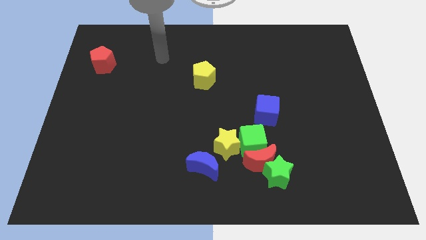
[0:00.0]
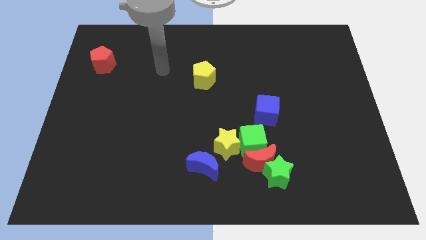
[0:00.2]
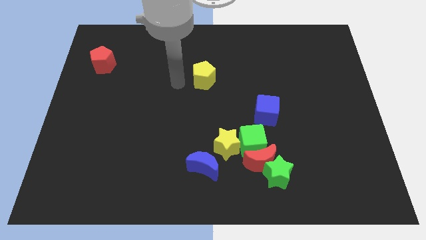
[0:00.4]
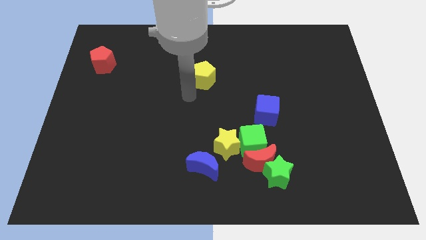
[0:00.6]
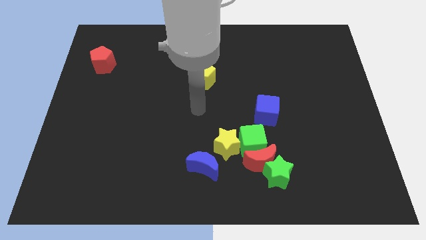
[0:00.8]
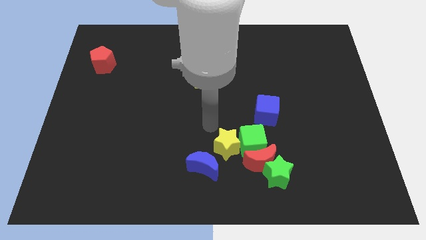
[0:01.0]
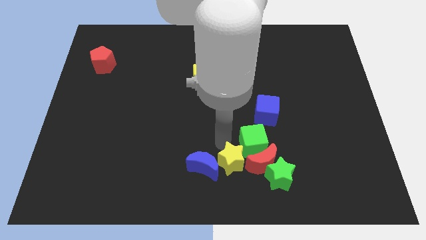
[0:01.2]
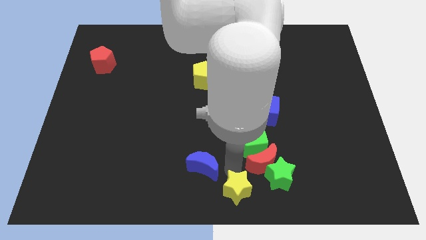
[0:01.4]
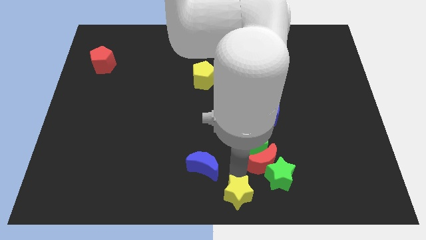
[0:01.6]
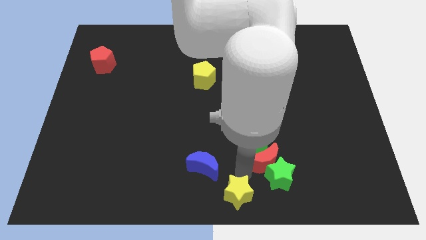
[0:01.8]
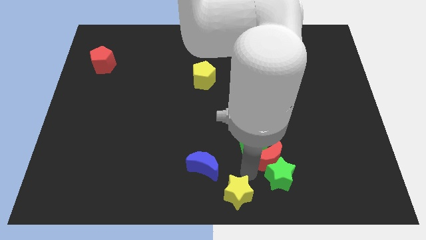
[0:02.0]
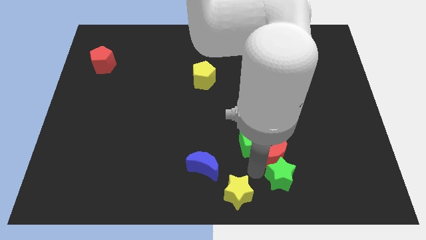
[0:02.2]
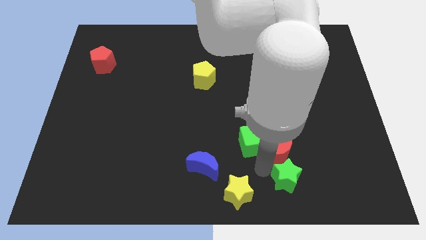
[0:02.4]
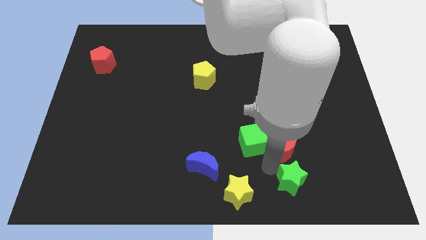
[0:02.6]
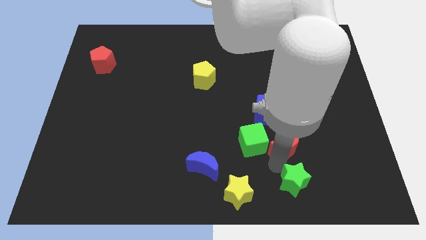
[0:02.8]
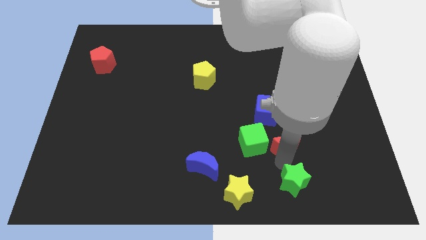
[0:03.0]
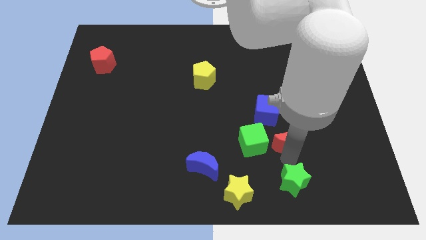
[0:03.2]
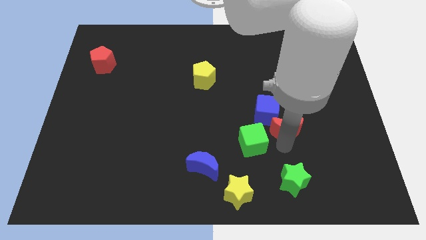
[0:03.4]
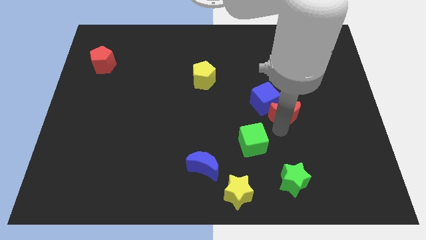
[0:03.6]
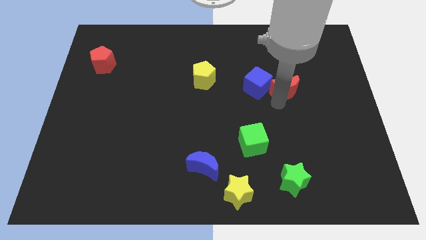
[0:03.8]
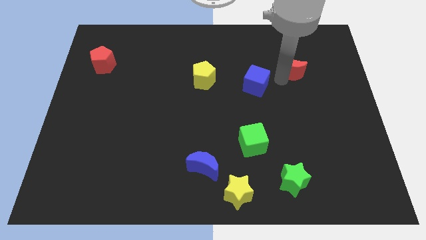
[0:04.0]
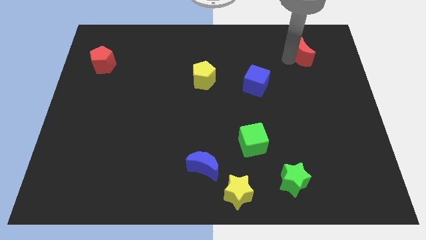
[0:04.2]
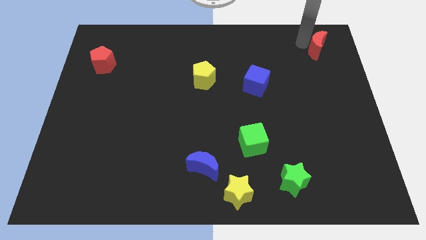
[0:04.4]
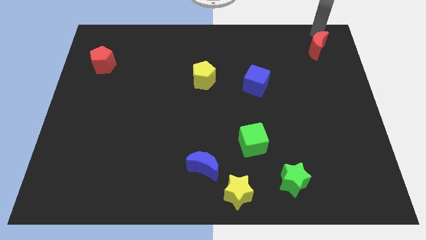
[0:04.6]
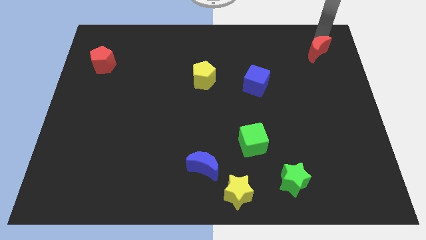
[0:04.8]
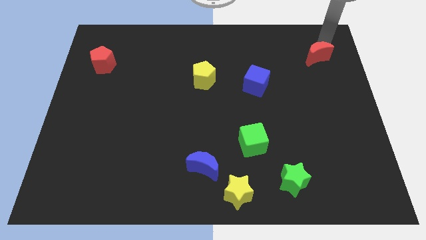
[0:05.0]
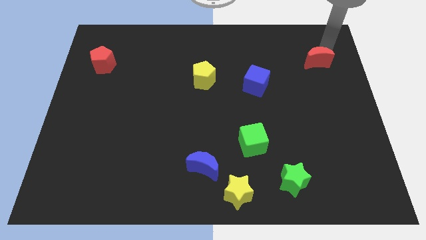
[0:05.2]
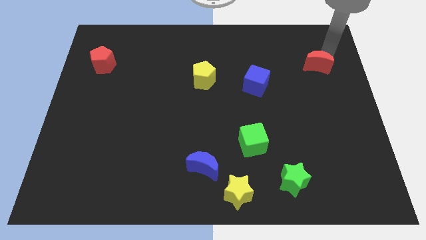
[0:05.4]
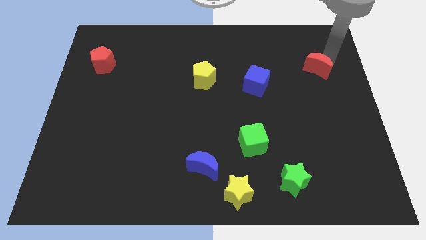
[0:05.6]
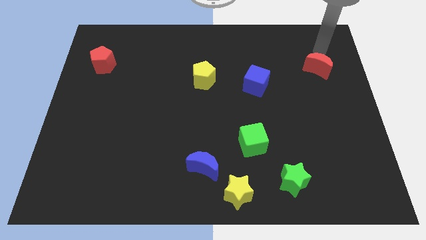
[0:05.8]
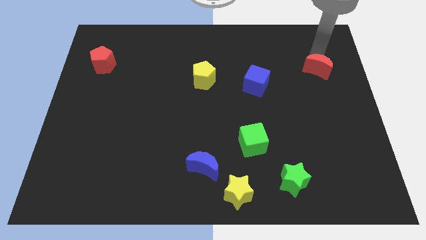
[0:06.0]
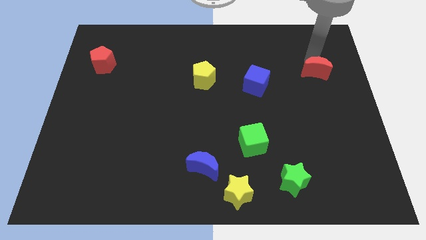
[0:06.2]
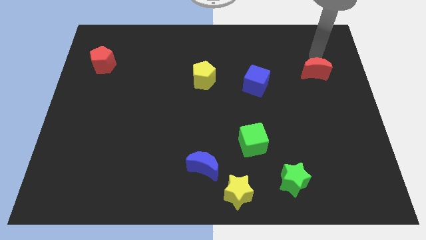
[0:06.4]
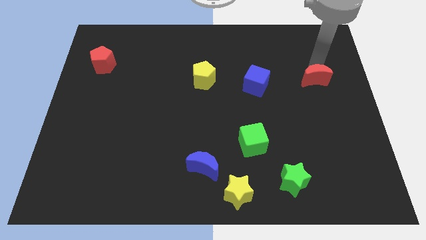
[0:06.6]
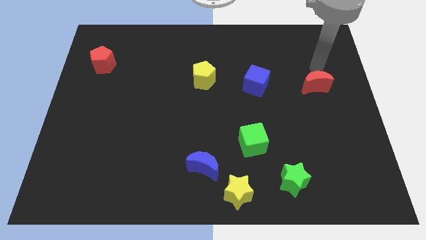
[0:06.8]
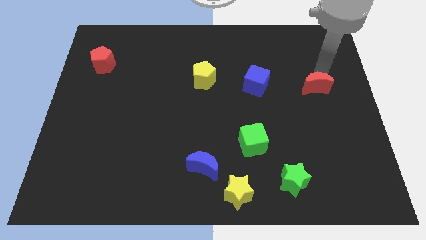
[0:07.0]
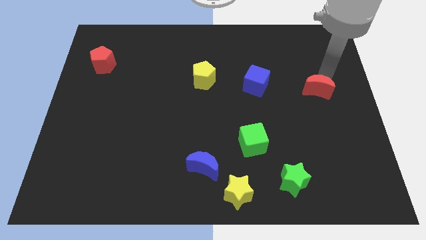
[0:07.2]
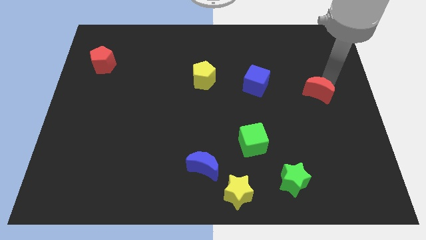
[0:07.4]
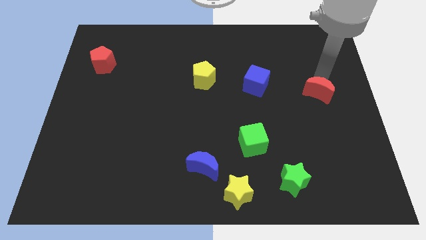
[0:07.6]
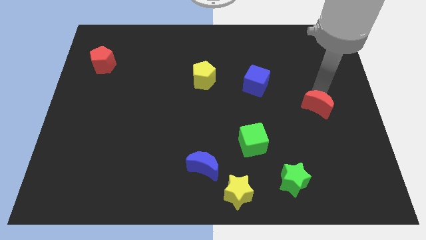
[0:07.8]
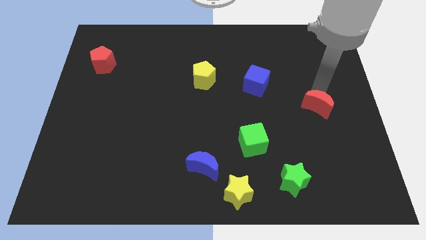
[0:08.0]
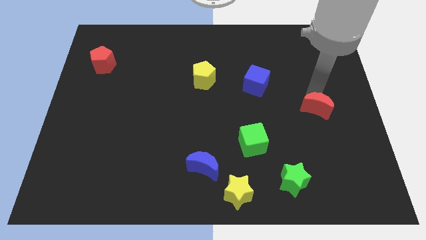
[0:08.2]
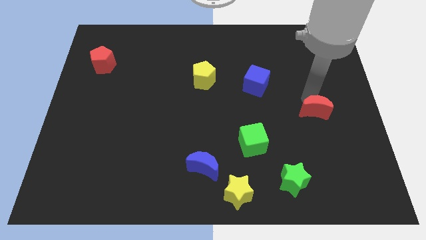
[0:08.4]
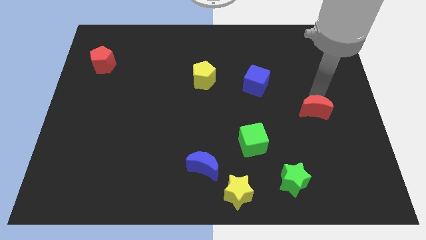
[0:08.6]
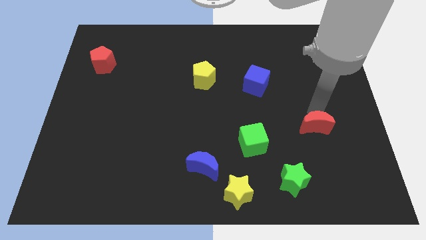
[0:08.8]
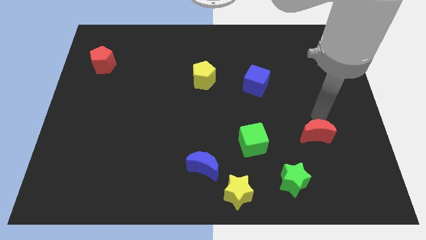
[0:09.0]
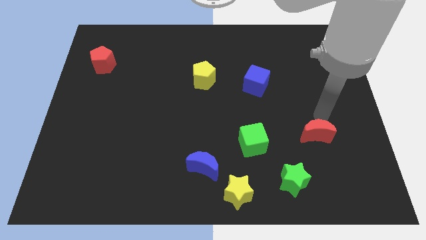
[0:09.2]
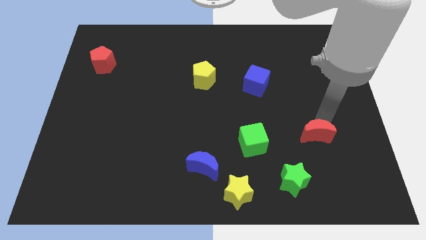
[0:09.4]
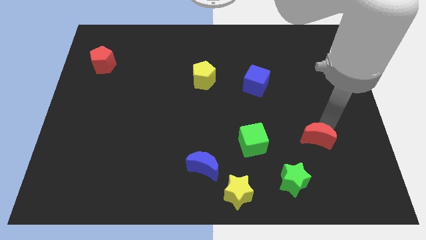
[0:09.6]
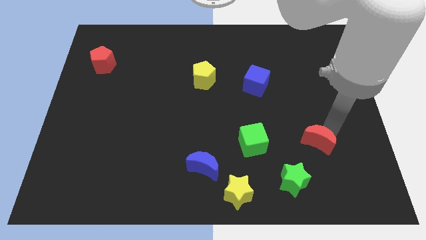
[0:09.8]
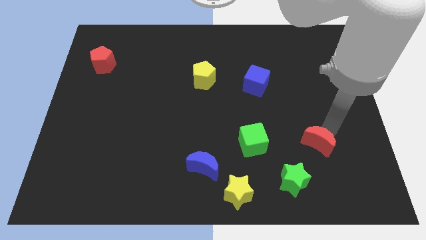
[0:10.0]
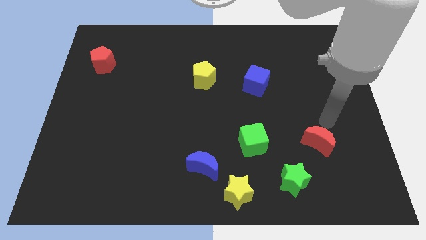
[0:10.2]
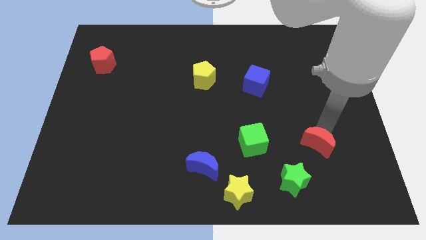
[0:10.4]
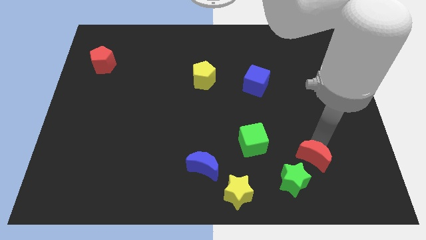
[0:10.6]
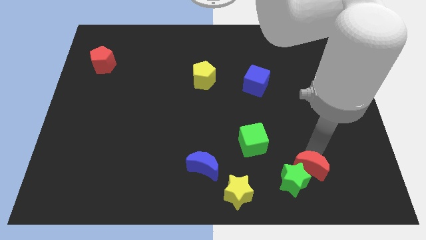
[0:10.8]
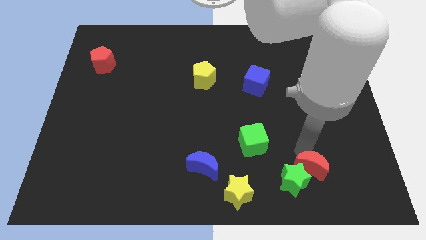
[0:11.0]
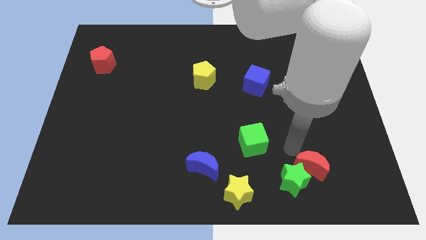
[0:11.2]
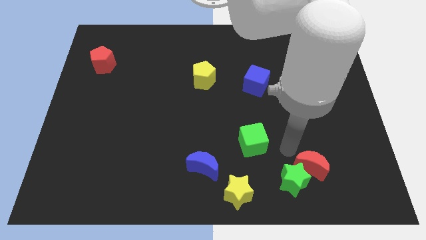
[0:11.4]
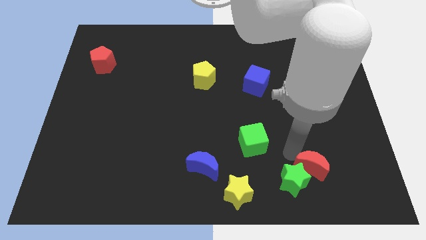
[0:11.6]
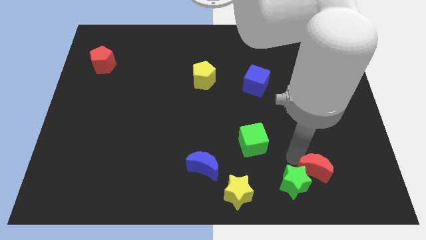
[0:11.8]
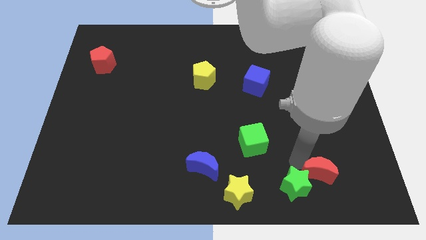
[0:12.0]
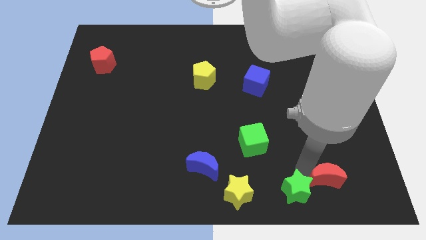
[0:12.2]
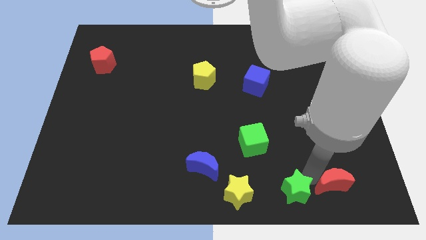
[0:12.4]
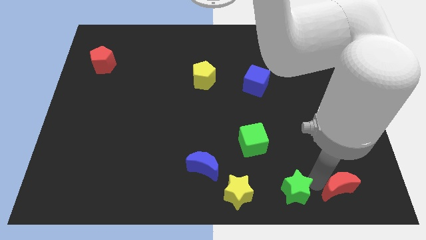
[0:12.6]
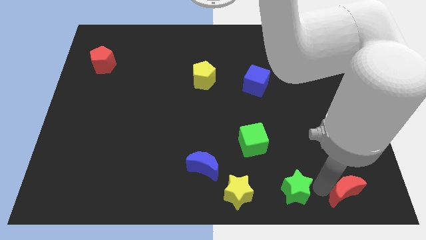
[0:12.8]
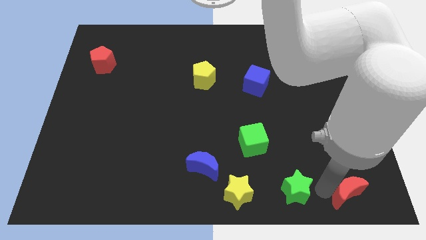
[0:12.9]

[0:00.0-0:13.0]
push the red moon to the lower right corner

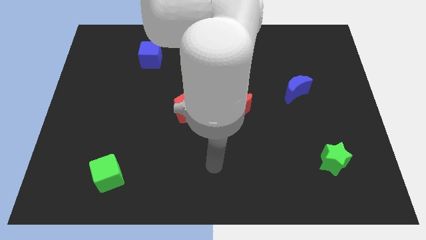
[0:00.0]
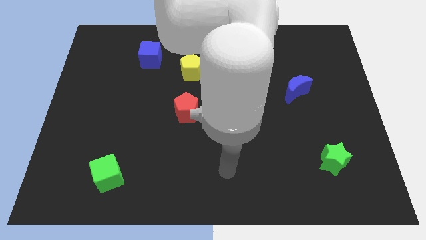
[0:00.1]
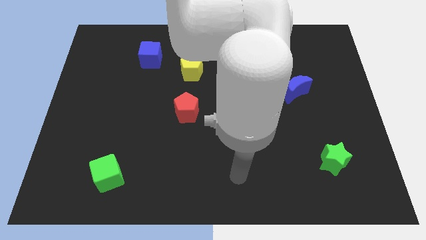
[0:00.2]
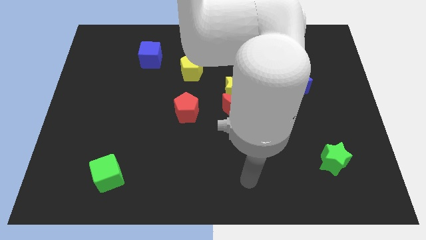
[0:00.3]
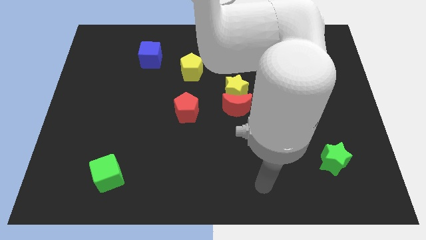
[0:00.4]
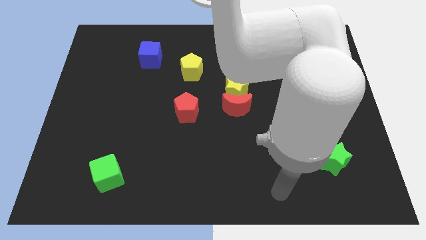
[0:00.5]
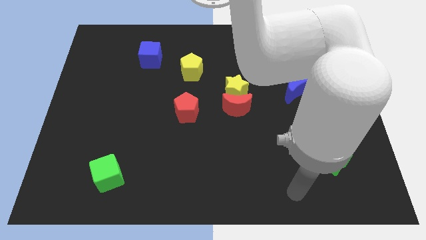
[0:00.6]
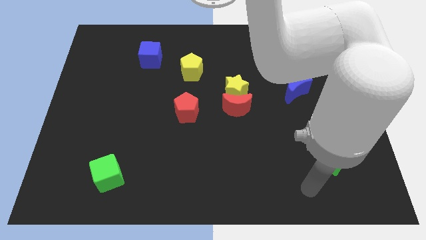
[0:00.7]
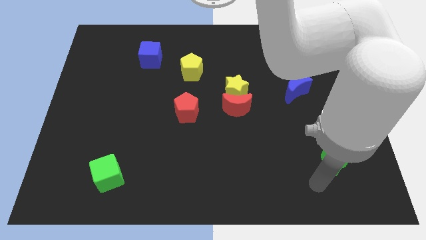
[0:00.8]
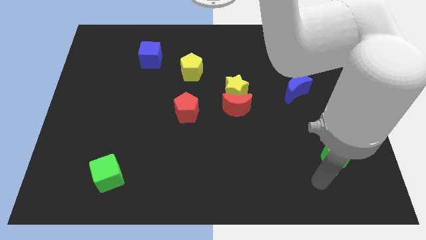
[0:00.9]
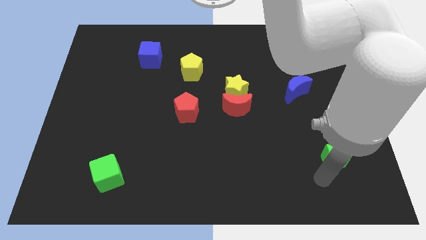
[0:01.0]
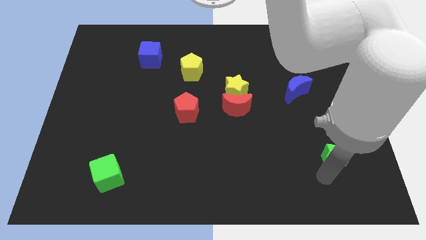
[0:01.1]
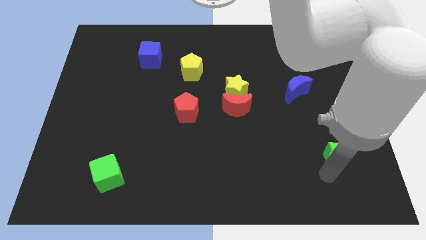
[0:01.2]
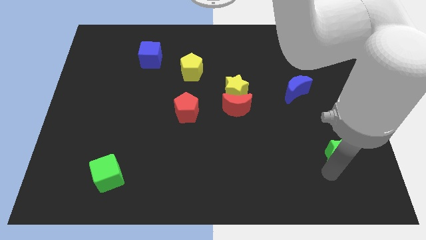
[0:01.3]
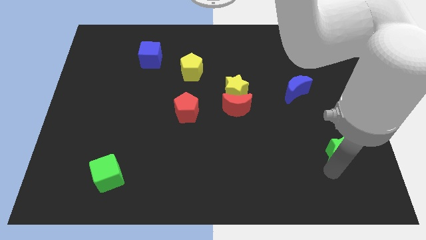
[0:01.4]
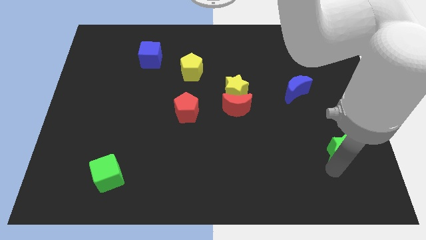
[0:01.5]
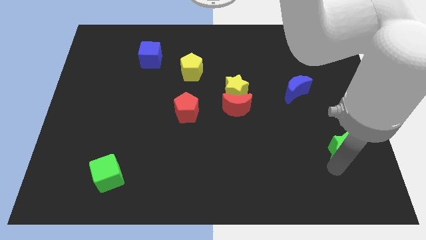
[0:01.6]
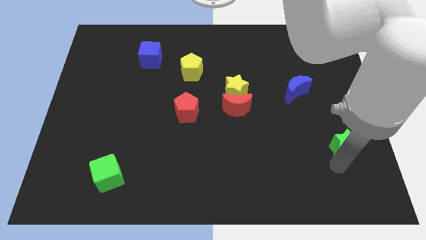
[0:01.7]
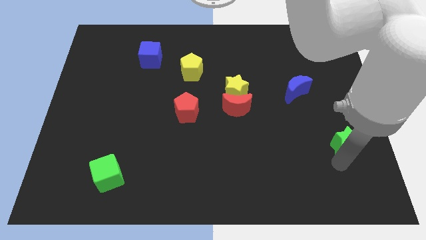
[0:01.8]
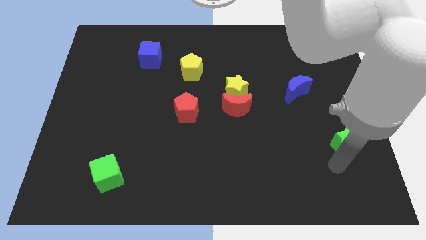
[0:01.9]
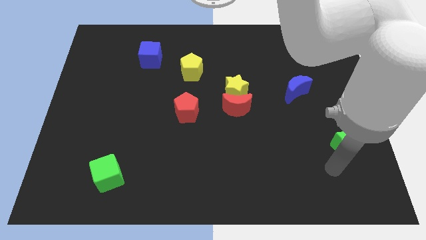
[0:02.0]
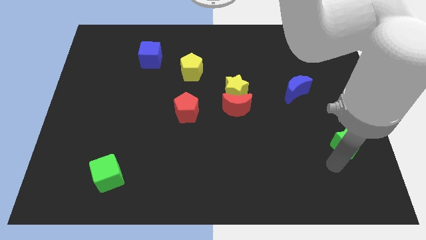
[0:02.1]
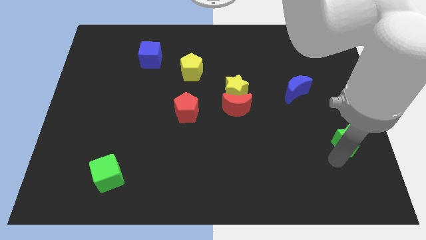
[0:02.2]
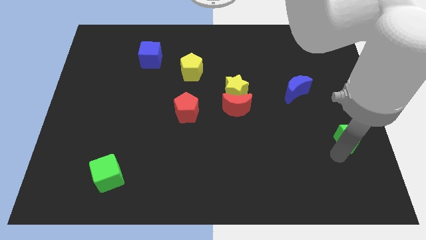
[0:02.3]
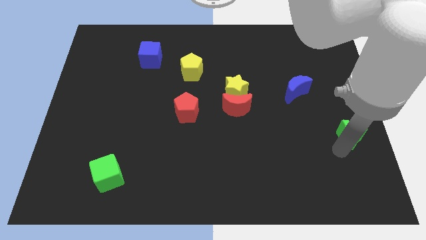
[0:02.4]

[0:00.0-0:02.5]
move the green star to the center right
